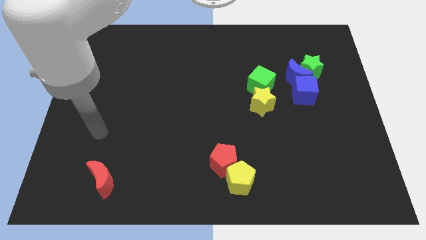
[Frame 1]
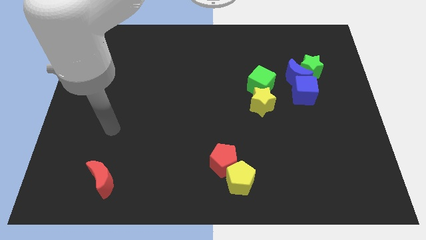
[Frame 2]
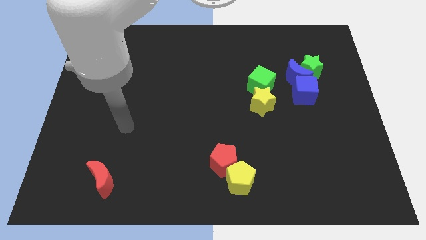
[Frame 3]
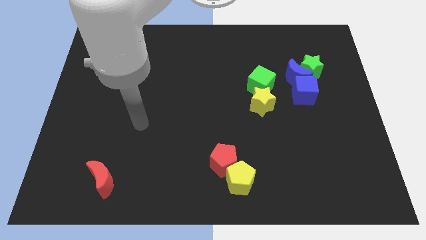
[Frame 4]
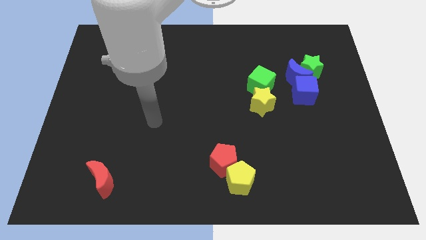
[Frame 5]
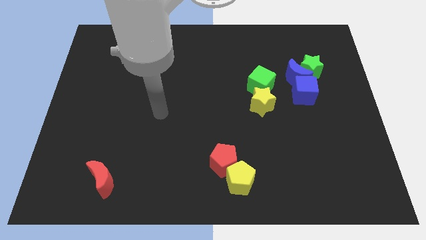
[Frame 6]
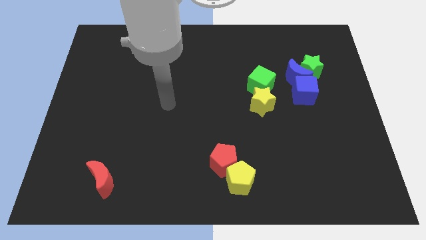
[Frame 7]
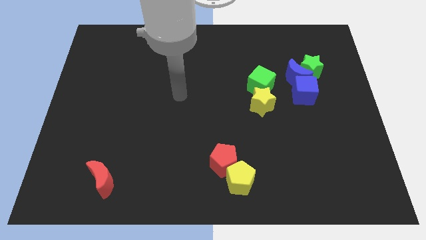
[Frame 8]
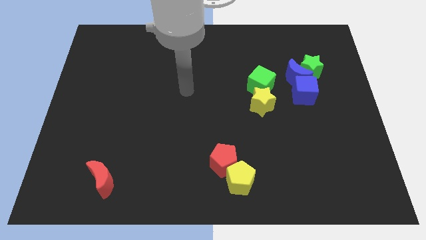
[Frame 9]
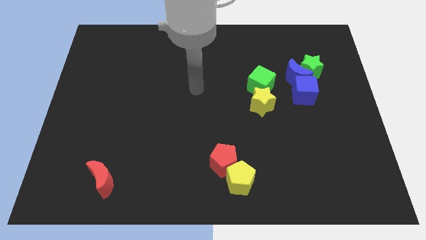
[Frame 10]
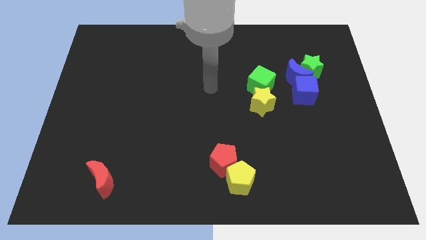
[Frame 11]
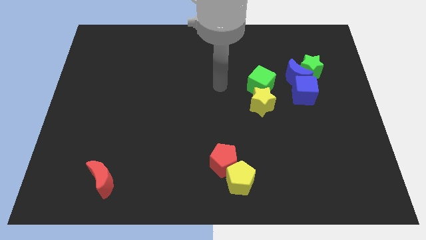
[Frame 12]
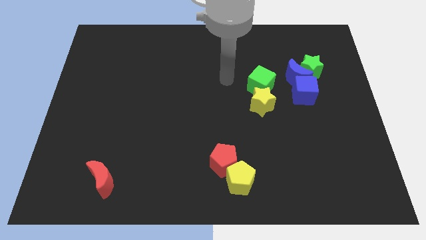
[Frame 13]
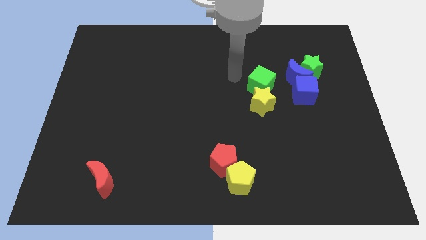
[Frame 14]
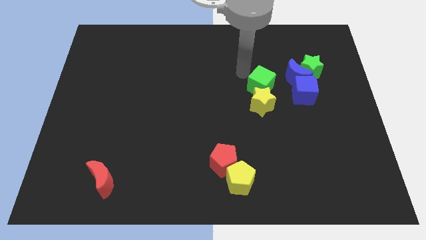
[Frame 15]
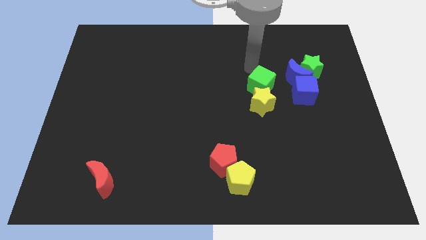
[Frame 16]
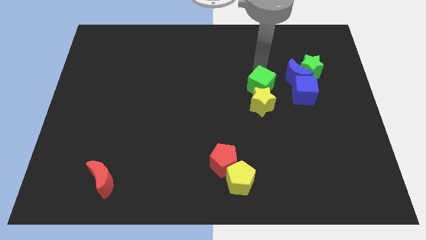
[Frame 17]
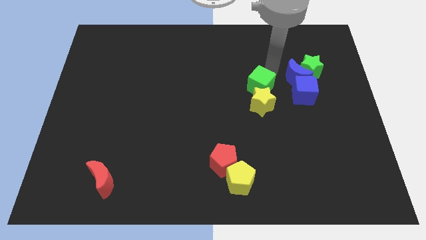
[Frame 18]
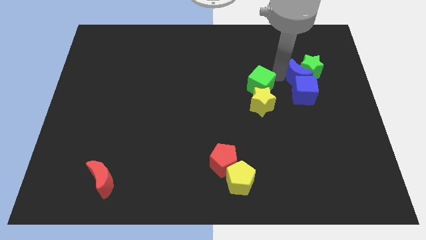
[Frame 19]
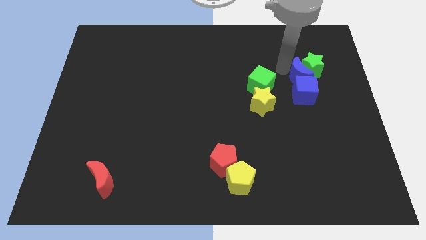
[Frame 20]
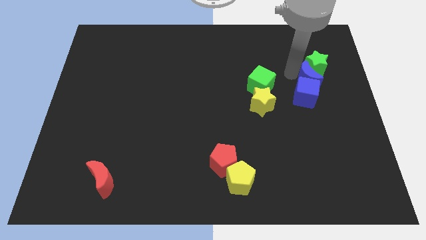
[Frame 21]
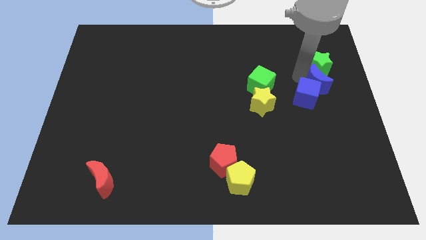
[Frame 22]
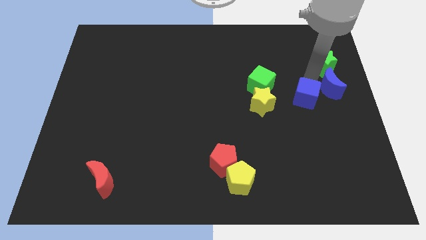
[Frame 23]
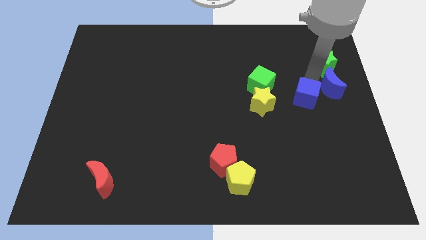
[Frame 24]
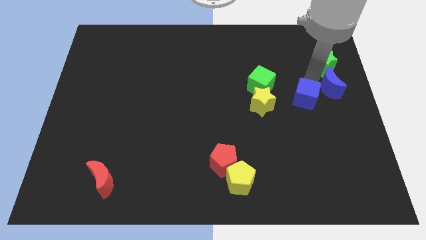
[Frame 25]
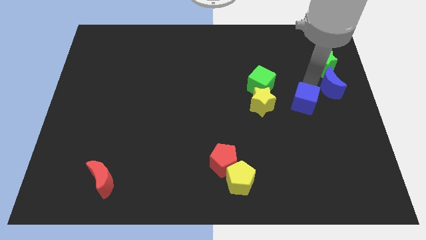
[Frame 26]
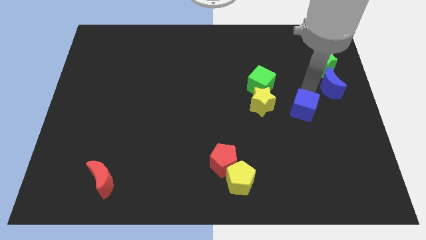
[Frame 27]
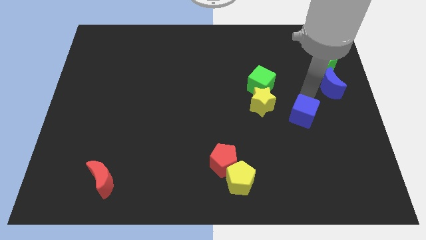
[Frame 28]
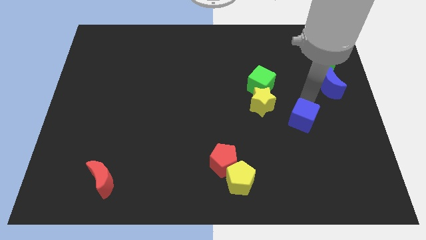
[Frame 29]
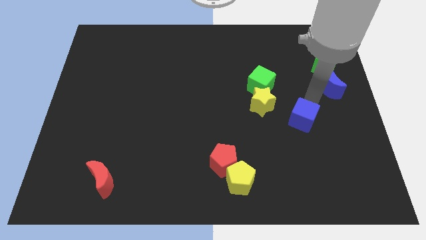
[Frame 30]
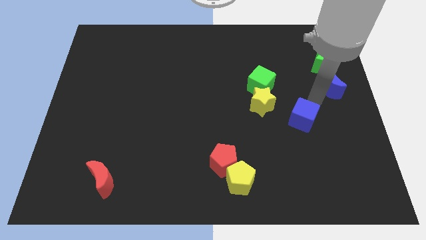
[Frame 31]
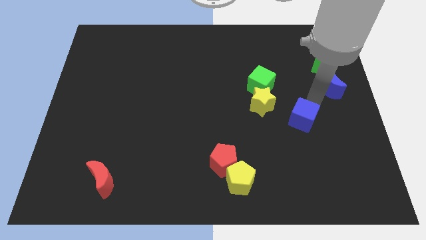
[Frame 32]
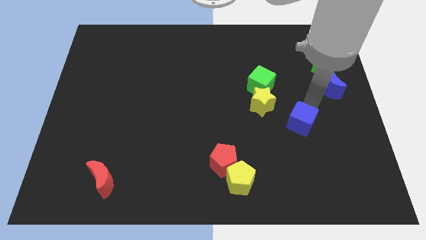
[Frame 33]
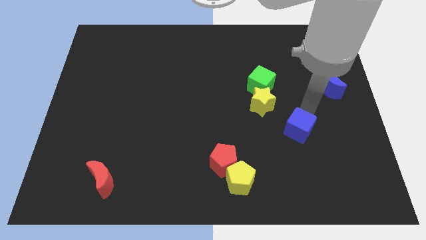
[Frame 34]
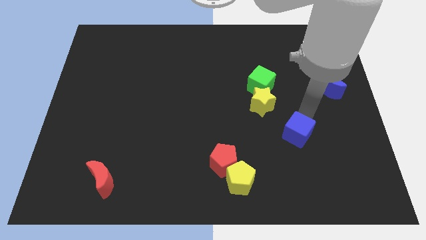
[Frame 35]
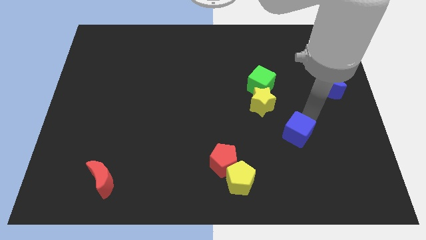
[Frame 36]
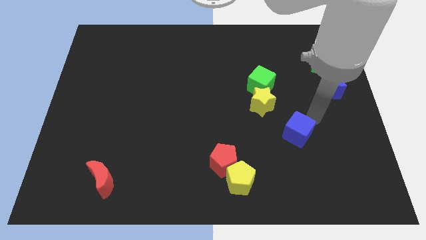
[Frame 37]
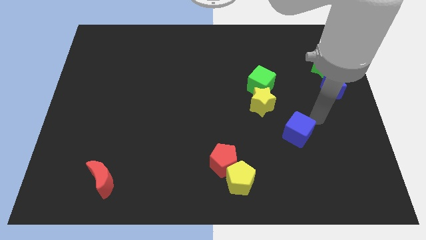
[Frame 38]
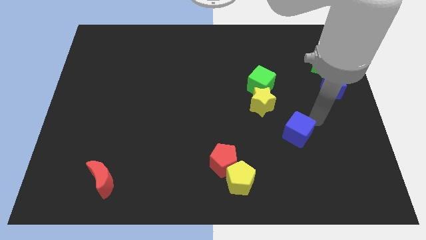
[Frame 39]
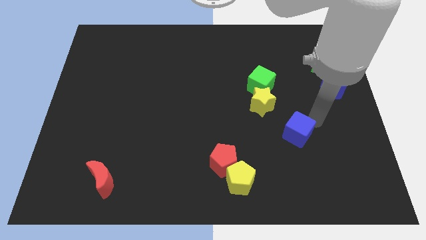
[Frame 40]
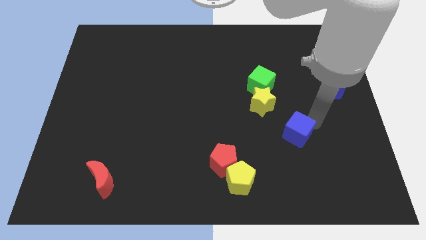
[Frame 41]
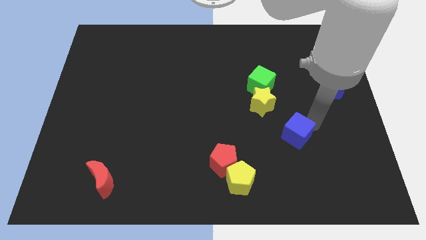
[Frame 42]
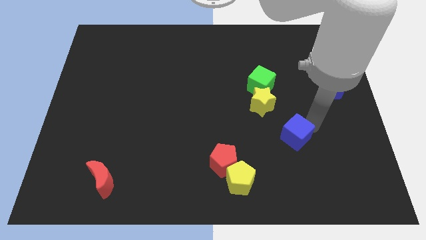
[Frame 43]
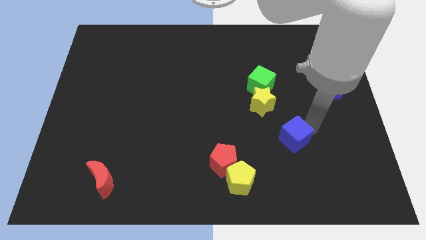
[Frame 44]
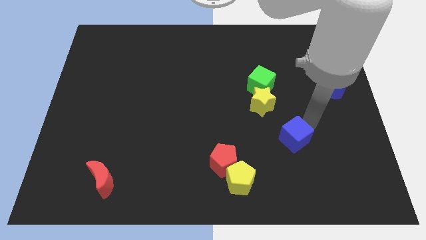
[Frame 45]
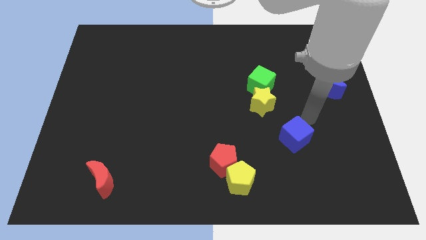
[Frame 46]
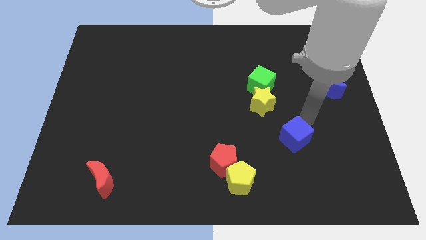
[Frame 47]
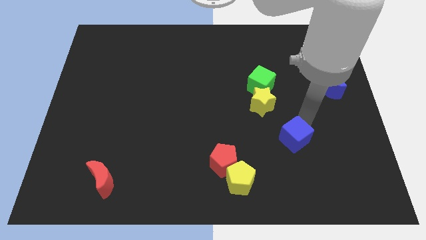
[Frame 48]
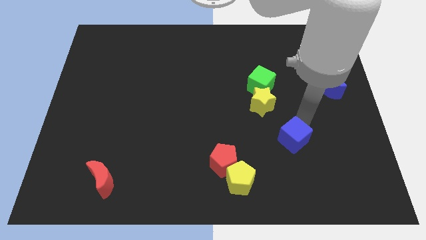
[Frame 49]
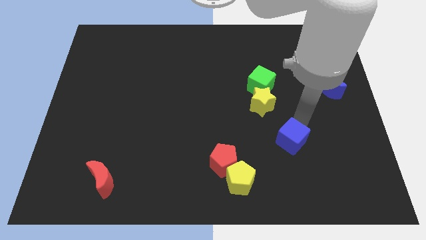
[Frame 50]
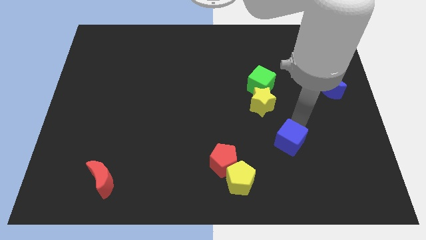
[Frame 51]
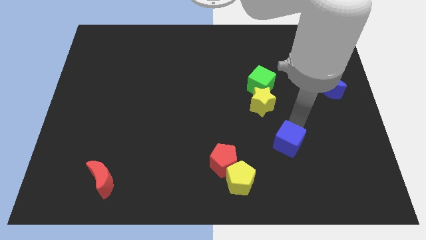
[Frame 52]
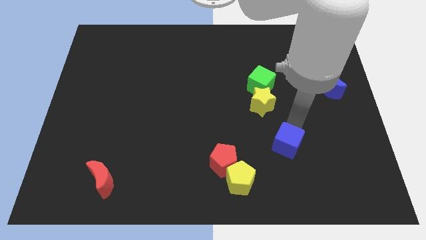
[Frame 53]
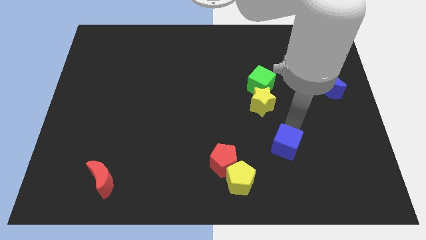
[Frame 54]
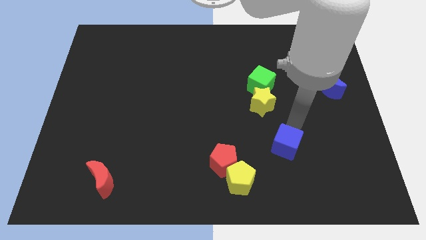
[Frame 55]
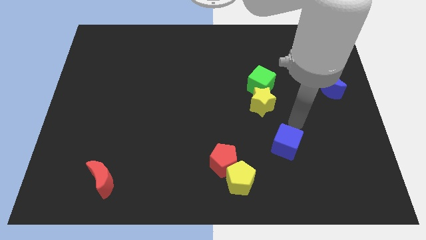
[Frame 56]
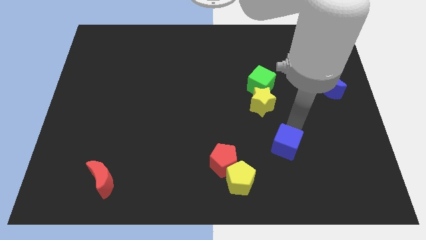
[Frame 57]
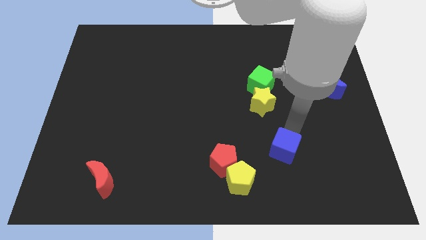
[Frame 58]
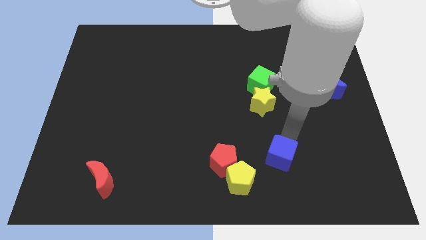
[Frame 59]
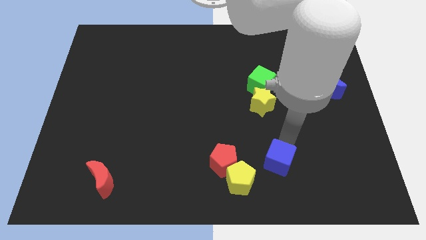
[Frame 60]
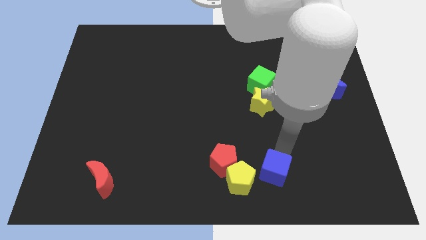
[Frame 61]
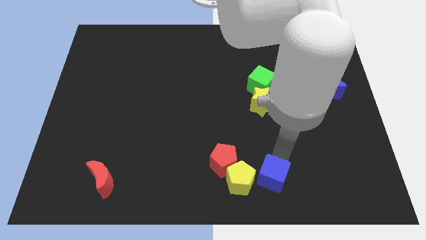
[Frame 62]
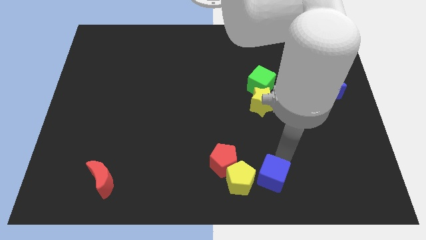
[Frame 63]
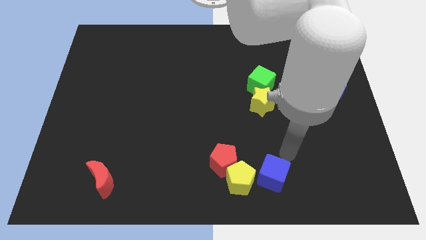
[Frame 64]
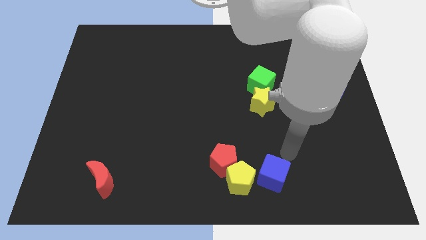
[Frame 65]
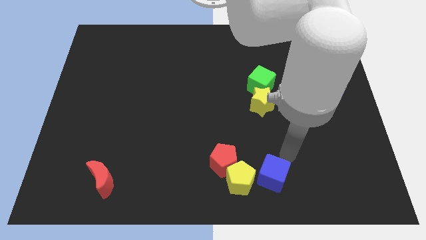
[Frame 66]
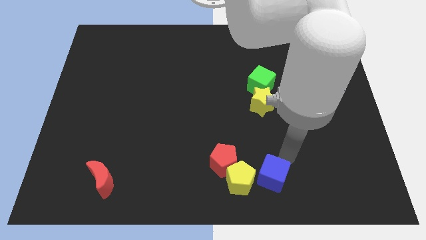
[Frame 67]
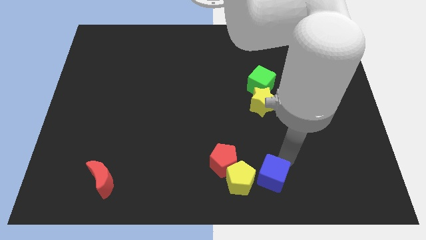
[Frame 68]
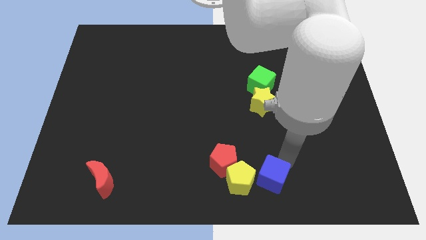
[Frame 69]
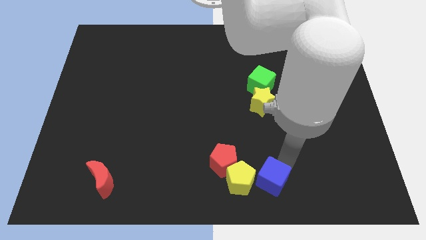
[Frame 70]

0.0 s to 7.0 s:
put the blue cube to the bottom side
